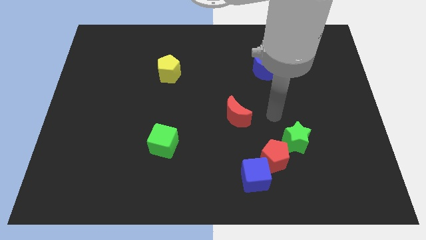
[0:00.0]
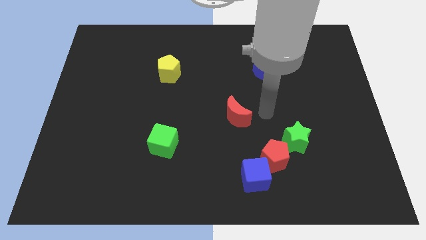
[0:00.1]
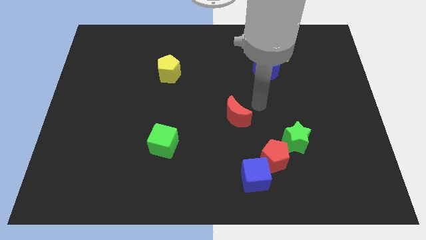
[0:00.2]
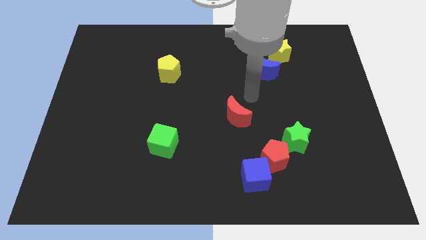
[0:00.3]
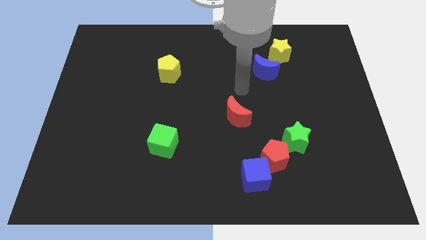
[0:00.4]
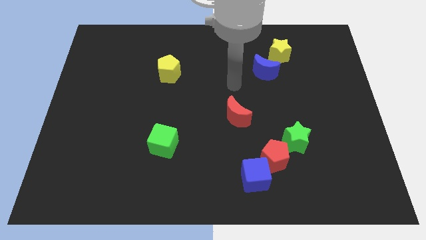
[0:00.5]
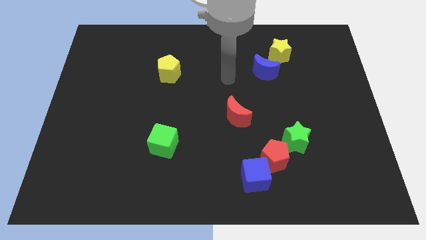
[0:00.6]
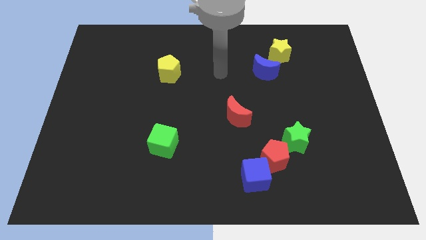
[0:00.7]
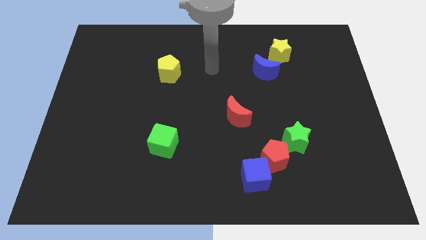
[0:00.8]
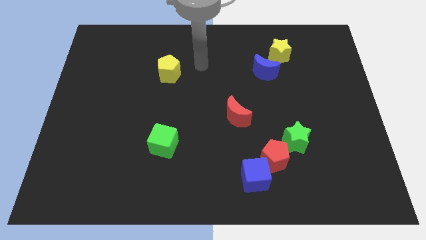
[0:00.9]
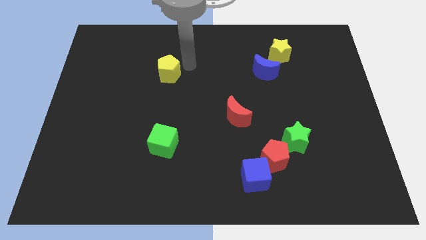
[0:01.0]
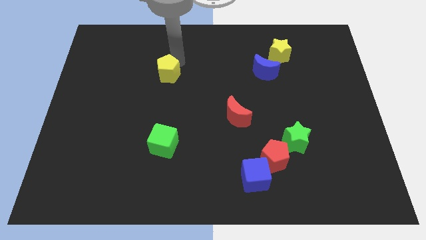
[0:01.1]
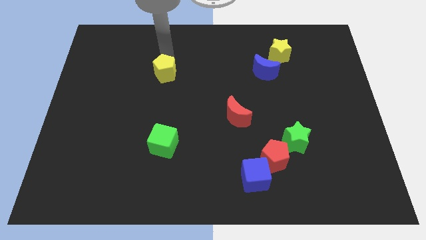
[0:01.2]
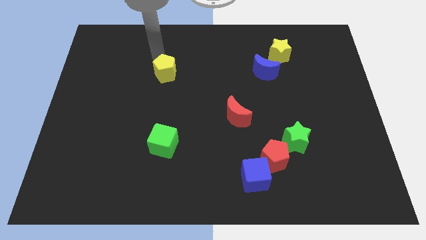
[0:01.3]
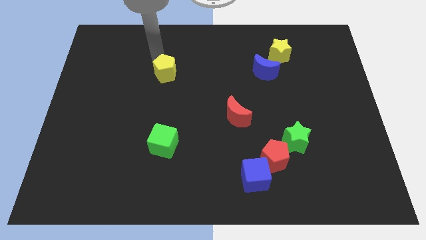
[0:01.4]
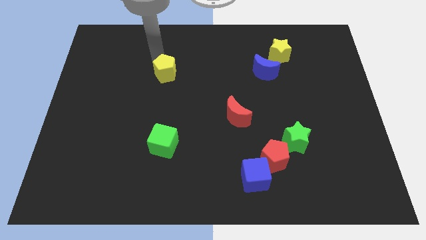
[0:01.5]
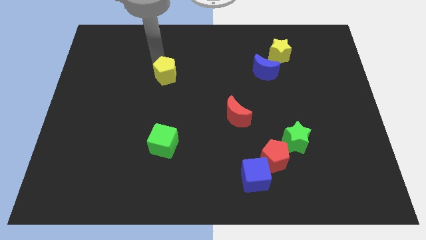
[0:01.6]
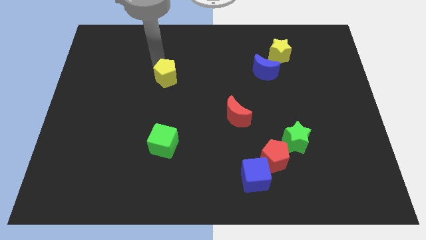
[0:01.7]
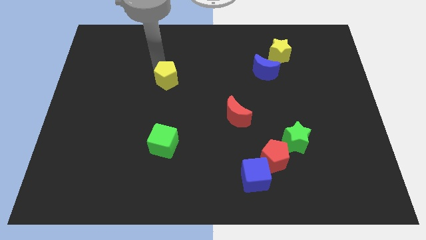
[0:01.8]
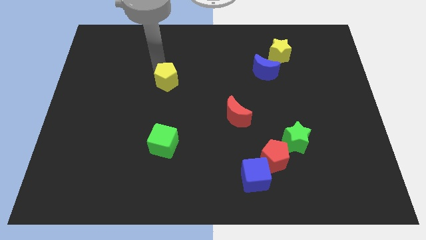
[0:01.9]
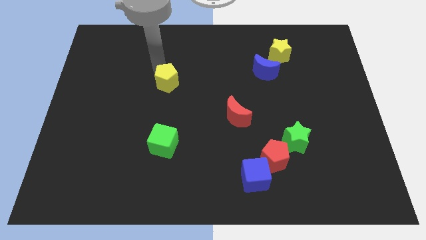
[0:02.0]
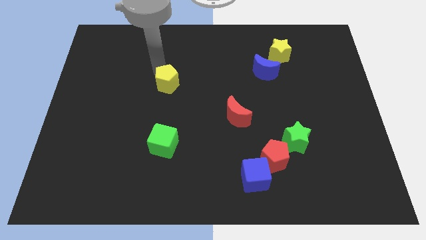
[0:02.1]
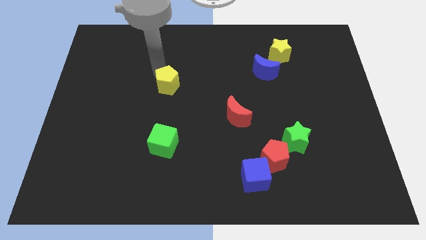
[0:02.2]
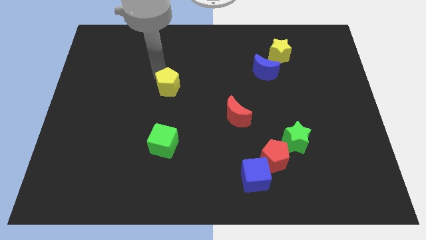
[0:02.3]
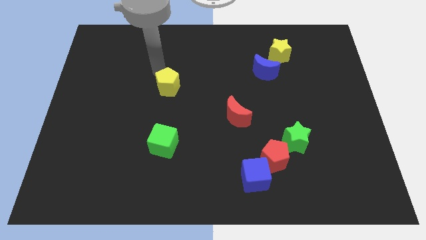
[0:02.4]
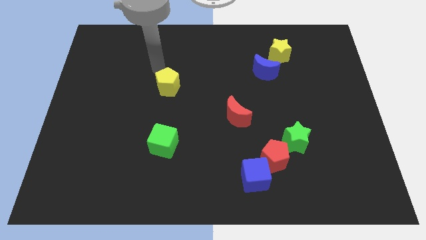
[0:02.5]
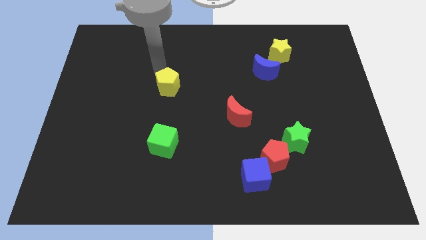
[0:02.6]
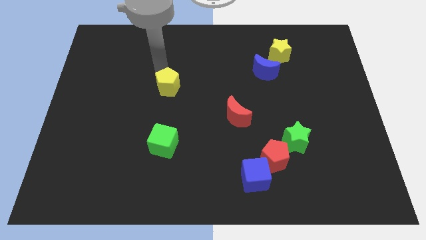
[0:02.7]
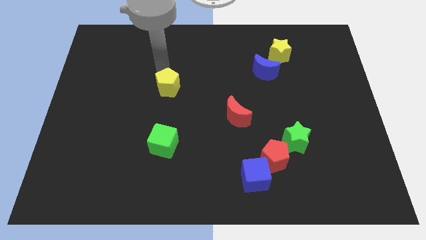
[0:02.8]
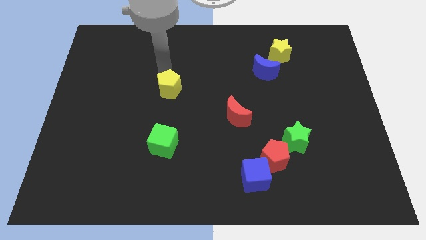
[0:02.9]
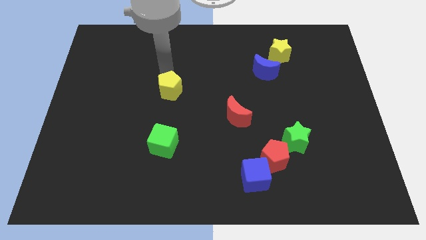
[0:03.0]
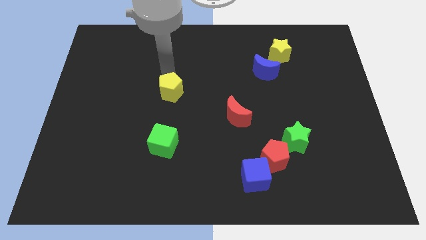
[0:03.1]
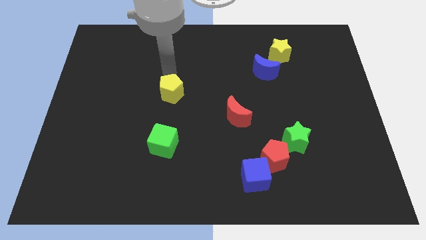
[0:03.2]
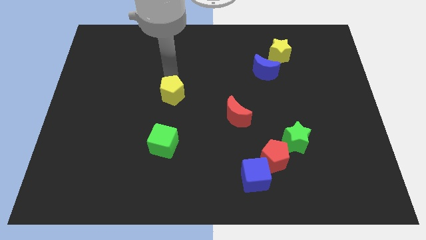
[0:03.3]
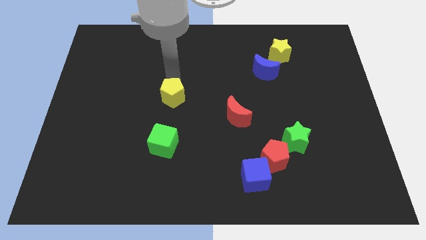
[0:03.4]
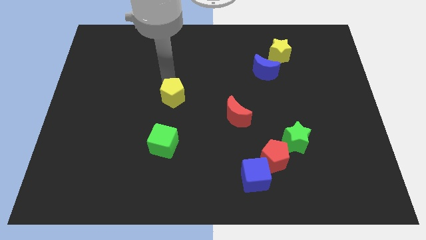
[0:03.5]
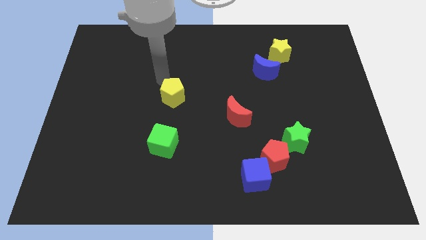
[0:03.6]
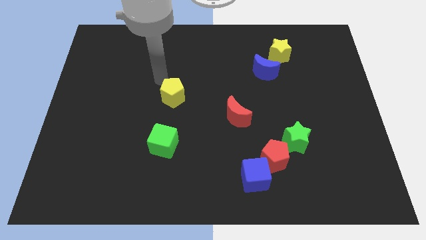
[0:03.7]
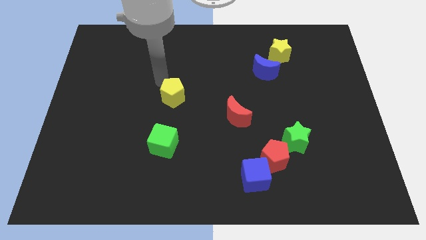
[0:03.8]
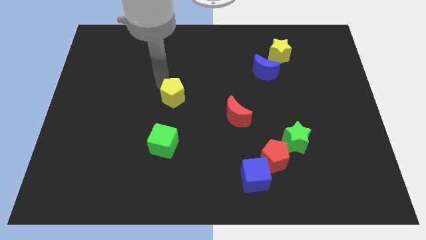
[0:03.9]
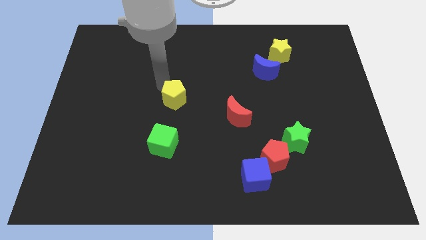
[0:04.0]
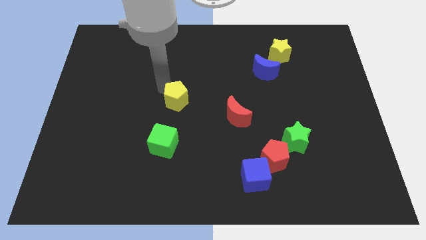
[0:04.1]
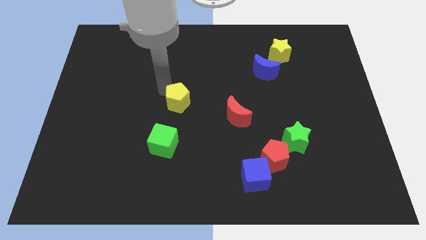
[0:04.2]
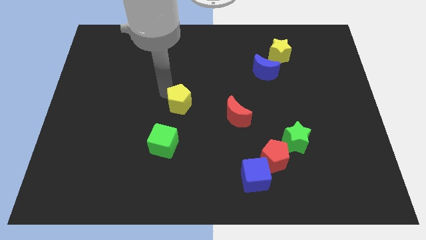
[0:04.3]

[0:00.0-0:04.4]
push the yellow pentagon left of the red moon

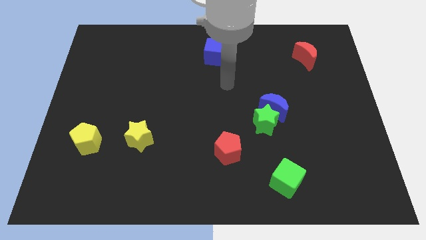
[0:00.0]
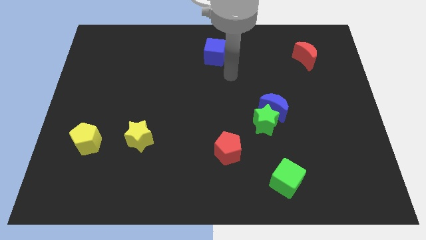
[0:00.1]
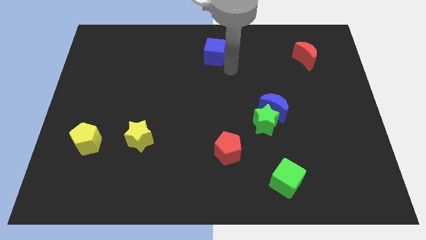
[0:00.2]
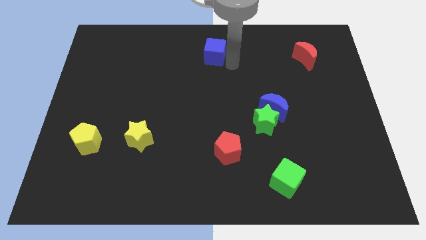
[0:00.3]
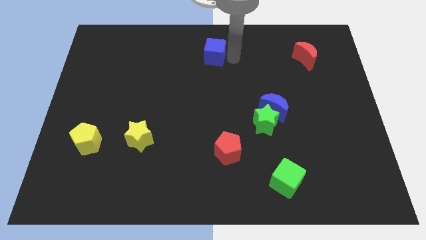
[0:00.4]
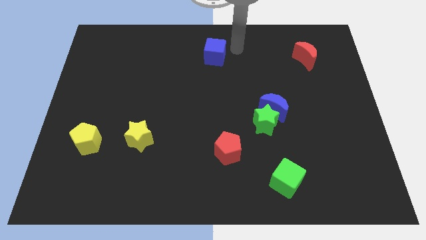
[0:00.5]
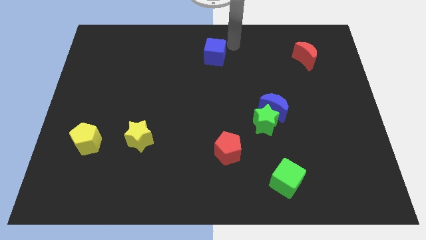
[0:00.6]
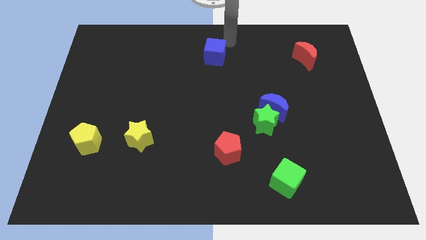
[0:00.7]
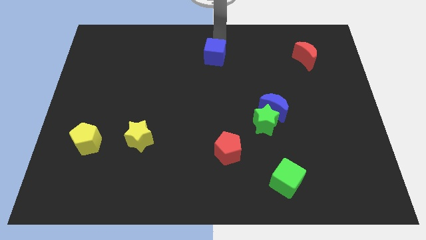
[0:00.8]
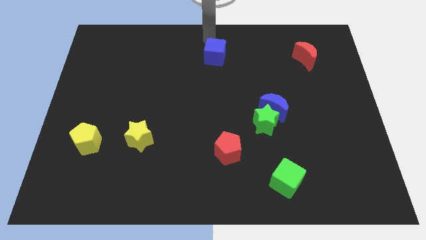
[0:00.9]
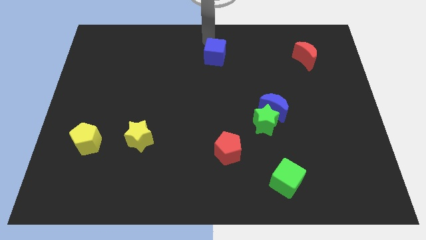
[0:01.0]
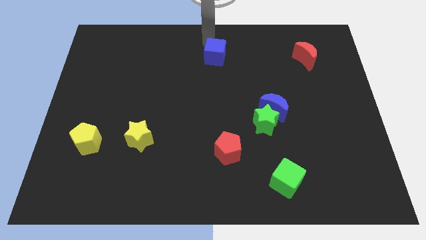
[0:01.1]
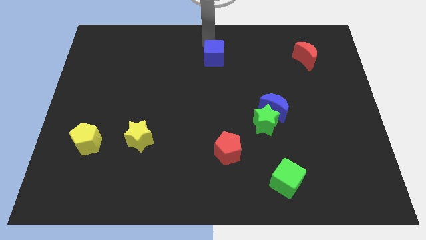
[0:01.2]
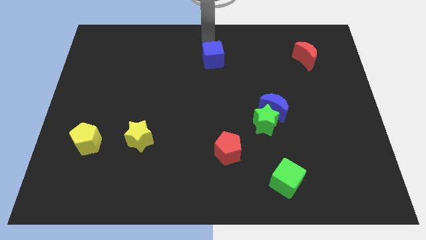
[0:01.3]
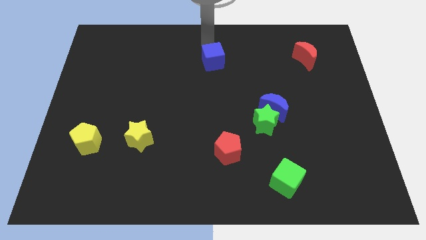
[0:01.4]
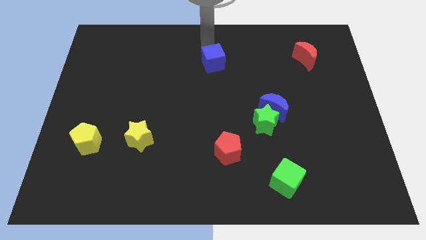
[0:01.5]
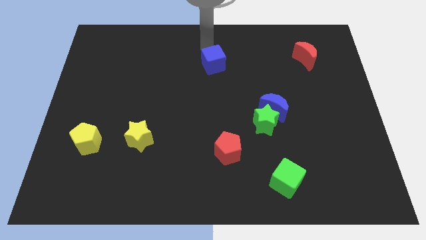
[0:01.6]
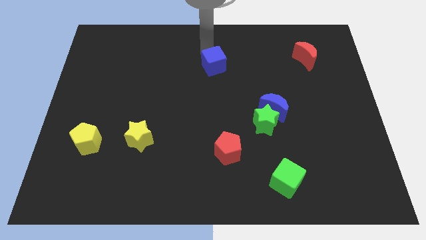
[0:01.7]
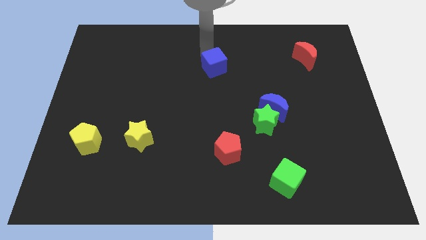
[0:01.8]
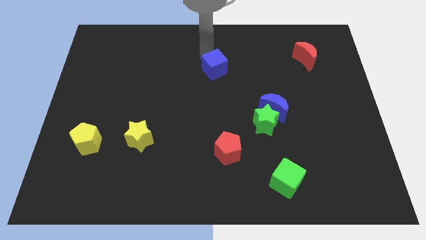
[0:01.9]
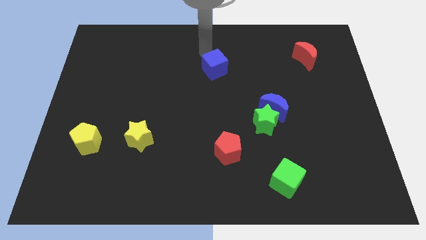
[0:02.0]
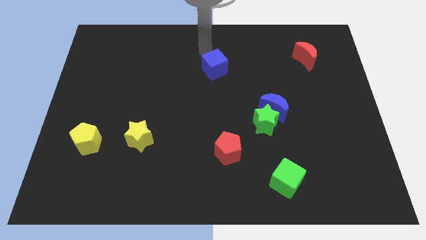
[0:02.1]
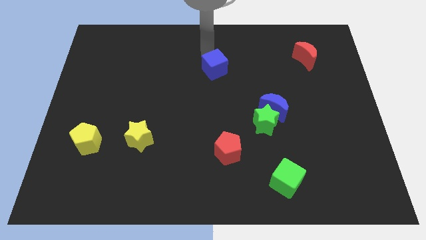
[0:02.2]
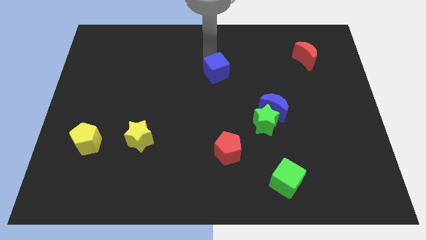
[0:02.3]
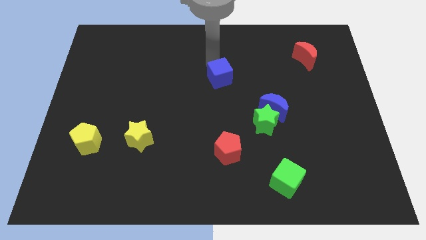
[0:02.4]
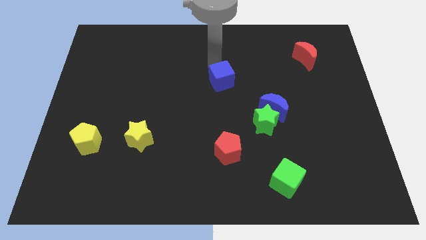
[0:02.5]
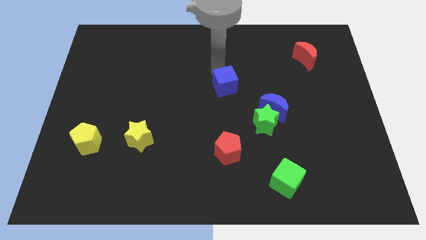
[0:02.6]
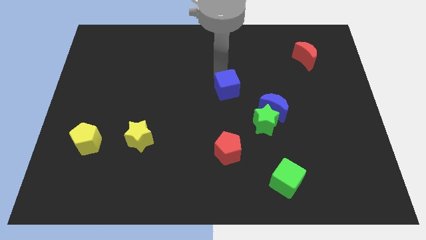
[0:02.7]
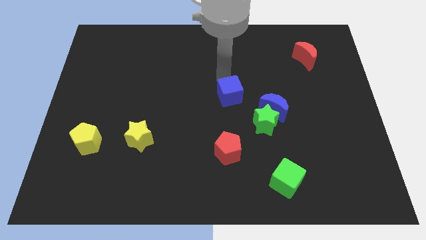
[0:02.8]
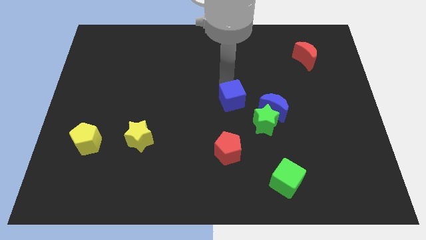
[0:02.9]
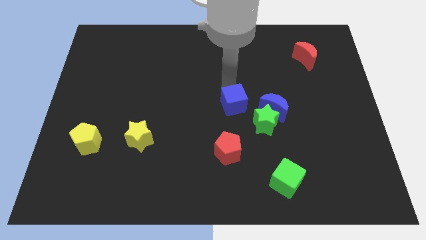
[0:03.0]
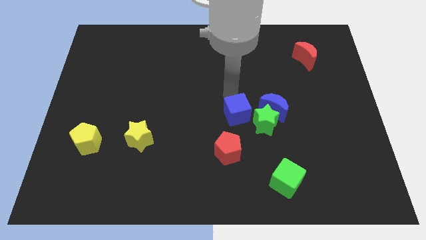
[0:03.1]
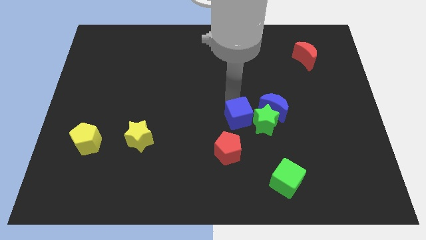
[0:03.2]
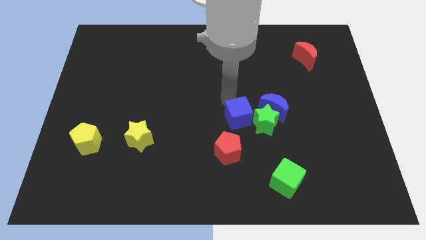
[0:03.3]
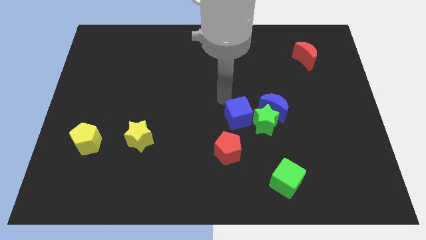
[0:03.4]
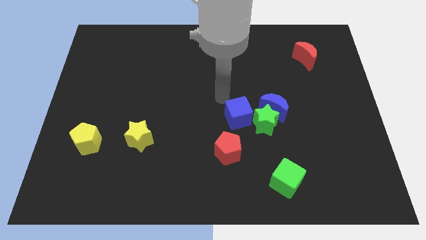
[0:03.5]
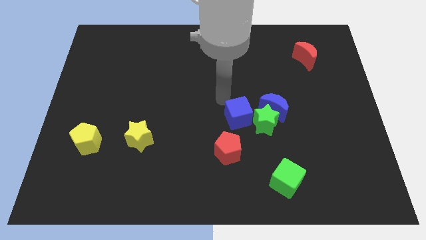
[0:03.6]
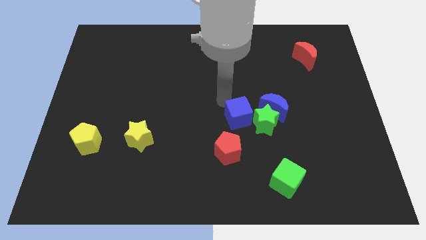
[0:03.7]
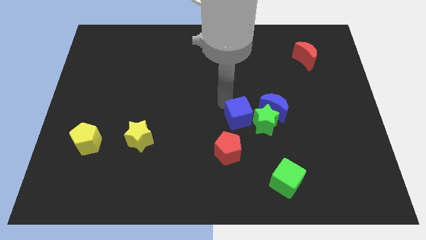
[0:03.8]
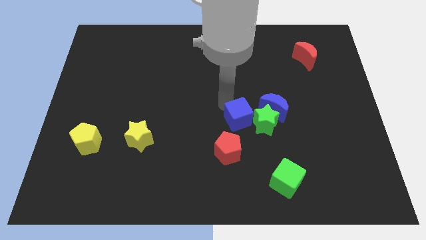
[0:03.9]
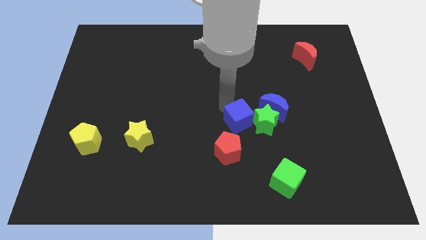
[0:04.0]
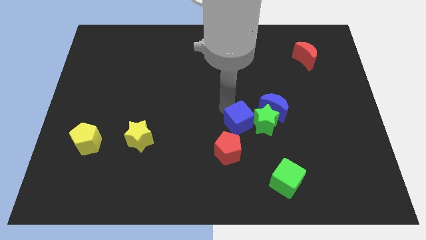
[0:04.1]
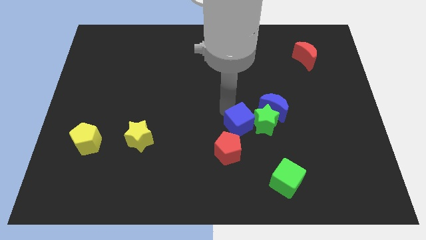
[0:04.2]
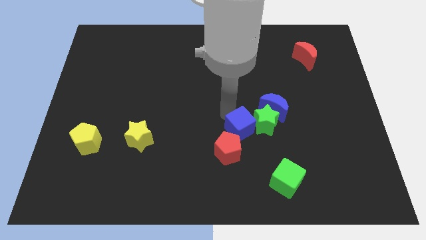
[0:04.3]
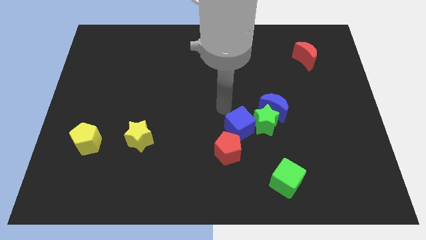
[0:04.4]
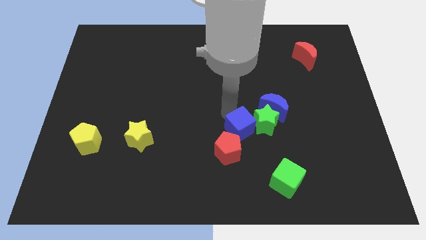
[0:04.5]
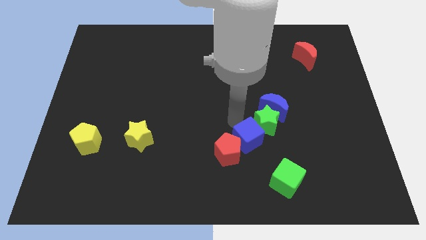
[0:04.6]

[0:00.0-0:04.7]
put the blue cube to the bottom of the green star
